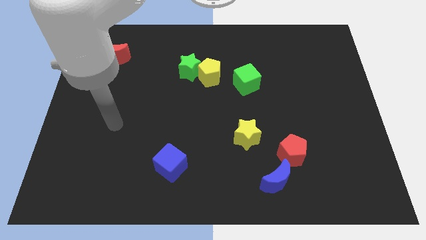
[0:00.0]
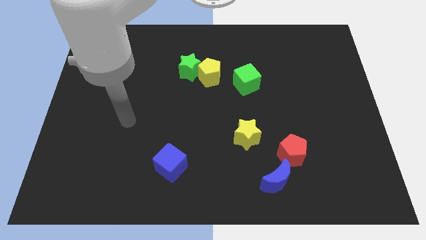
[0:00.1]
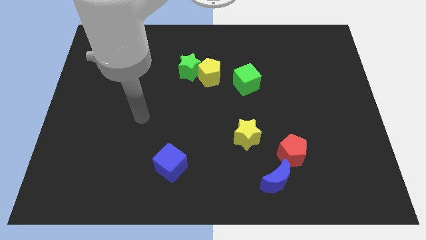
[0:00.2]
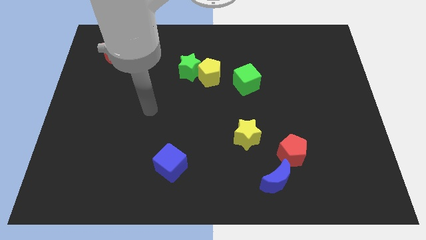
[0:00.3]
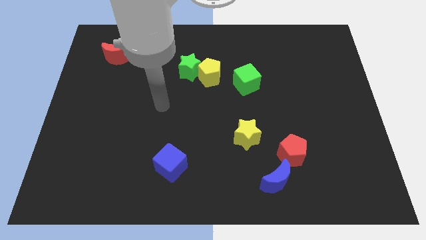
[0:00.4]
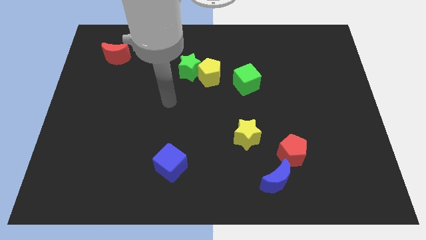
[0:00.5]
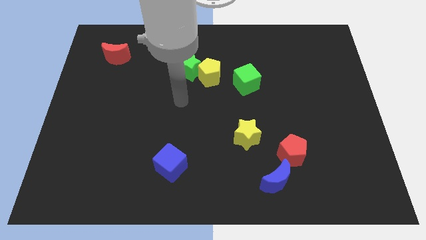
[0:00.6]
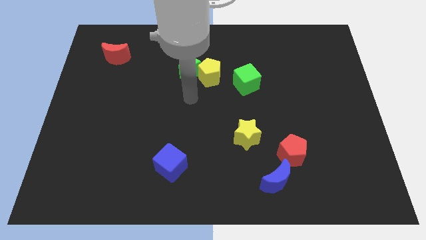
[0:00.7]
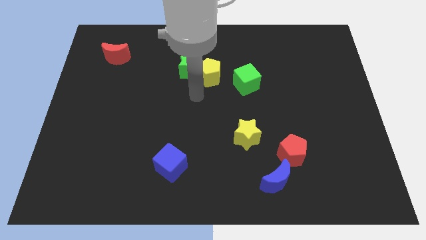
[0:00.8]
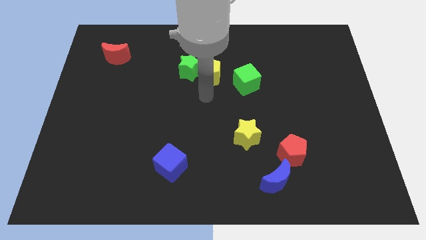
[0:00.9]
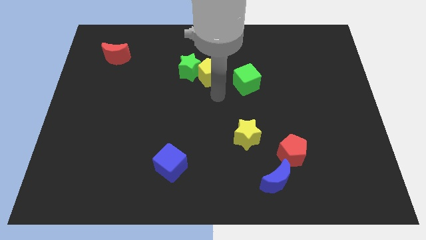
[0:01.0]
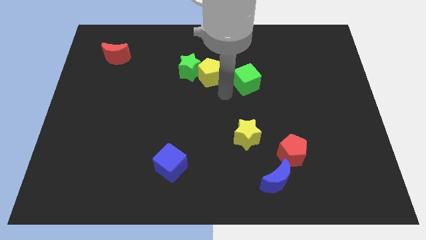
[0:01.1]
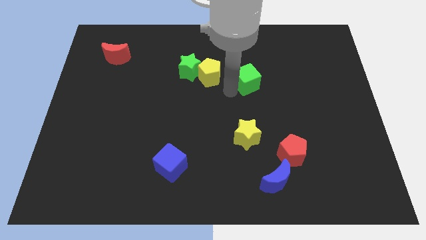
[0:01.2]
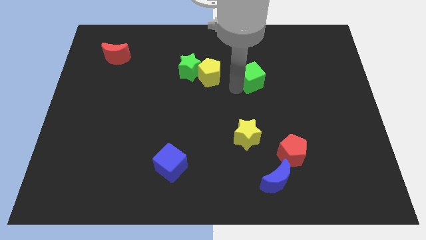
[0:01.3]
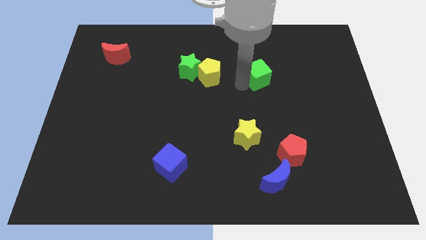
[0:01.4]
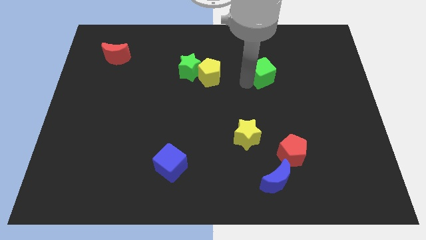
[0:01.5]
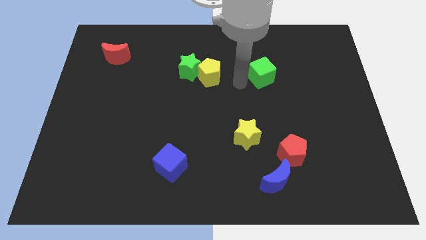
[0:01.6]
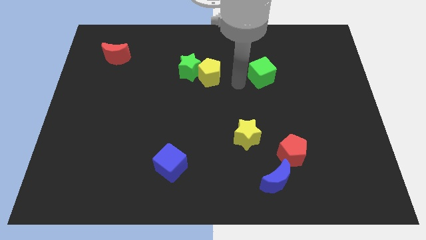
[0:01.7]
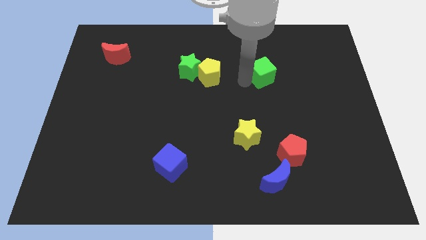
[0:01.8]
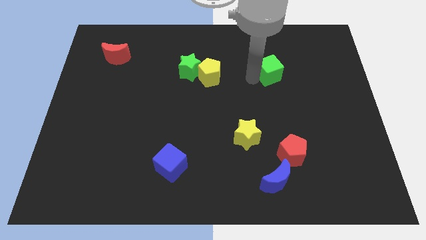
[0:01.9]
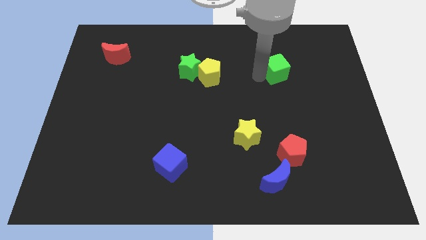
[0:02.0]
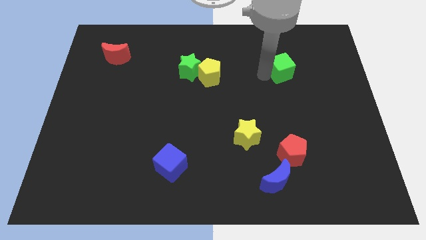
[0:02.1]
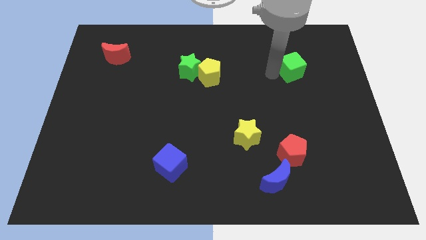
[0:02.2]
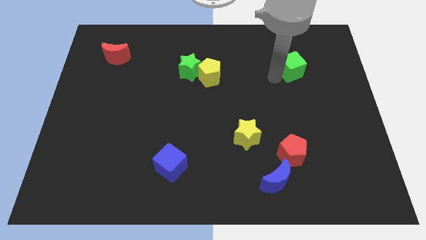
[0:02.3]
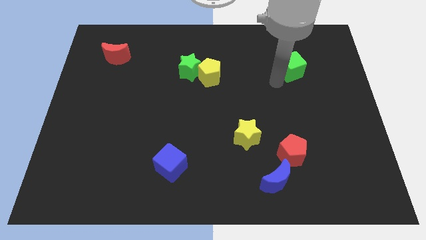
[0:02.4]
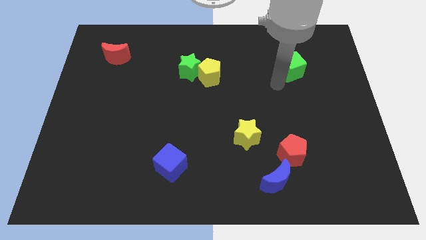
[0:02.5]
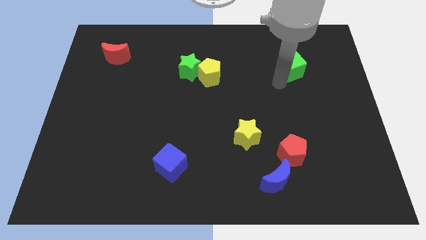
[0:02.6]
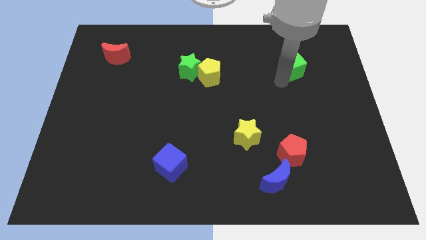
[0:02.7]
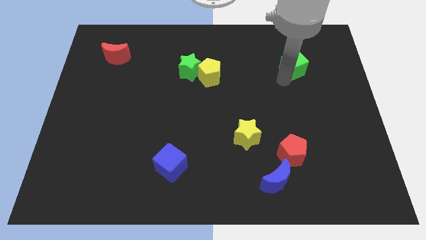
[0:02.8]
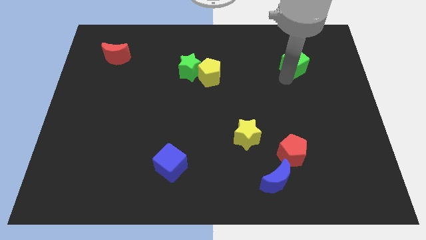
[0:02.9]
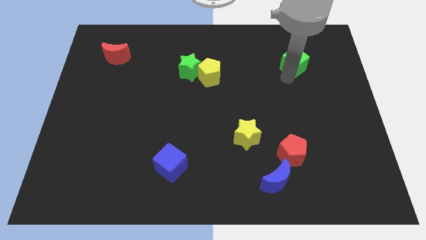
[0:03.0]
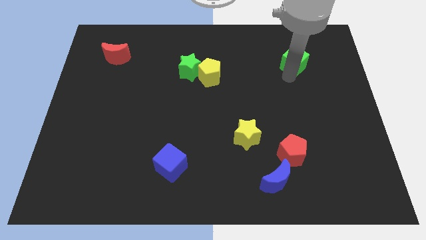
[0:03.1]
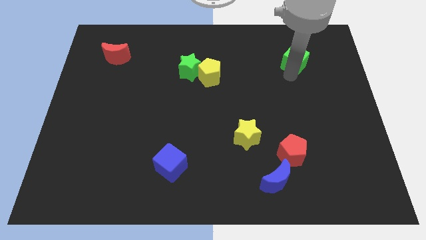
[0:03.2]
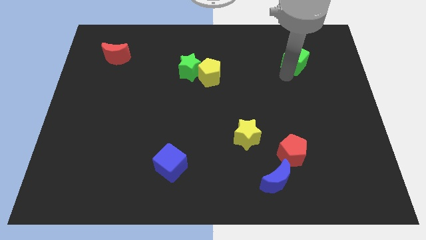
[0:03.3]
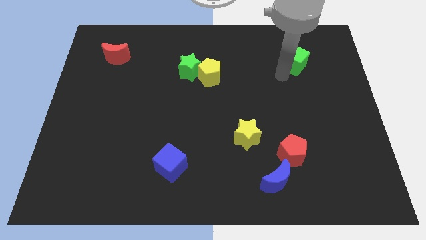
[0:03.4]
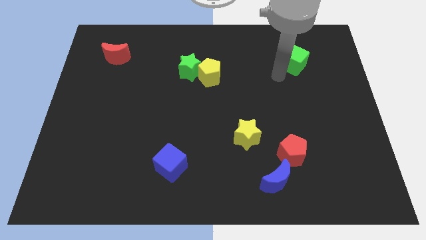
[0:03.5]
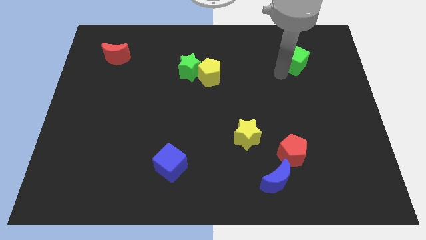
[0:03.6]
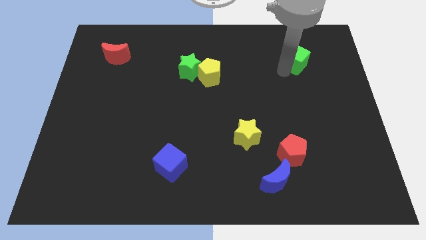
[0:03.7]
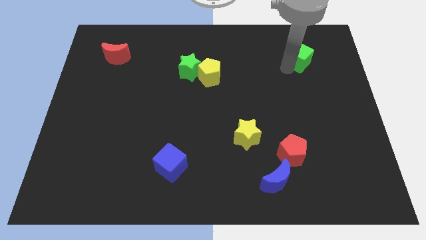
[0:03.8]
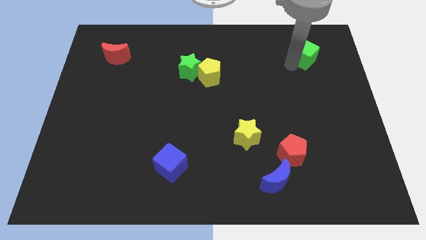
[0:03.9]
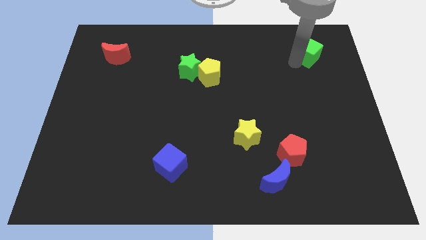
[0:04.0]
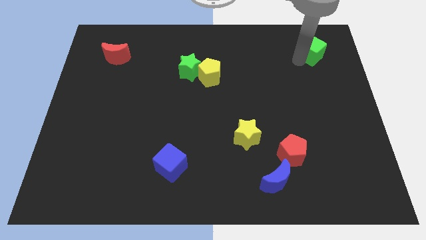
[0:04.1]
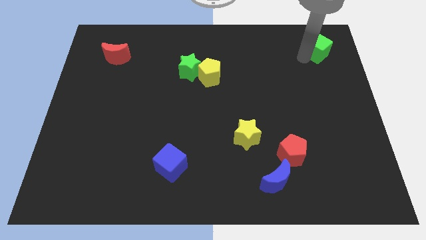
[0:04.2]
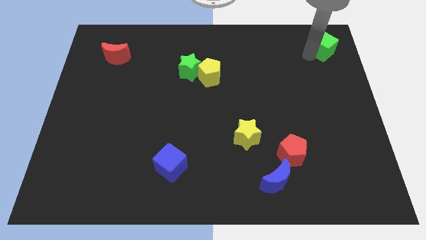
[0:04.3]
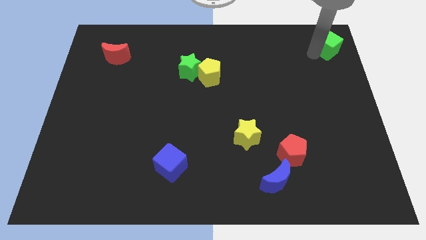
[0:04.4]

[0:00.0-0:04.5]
move the green cube to the top right

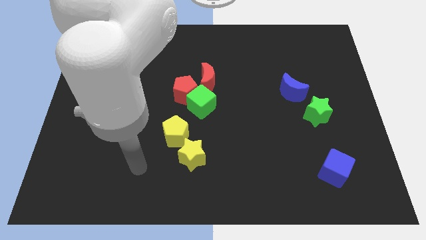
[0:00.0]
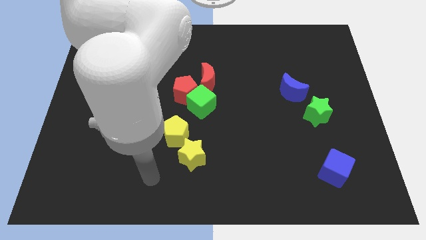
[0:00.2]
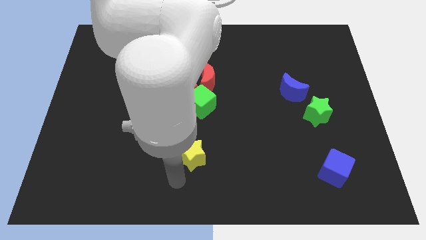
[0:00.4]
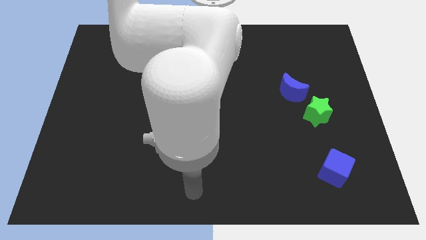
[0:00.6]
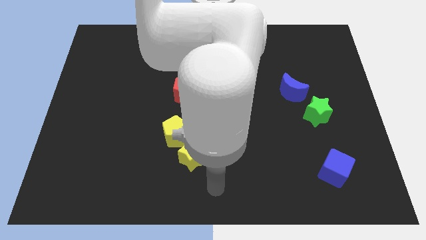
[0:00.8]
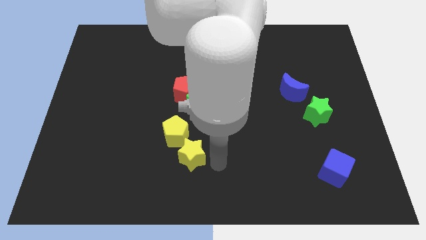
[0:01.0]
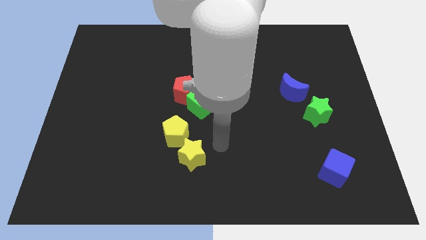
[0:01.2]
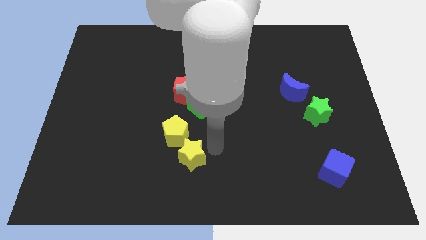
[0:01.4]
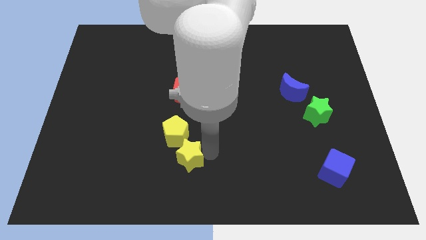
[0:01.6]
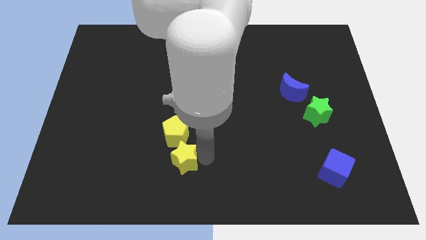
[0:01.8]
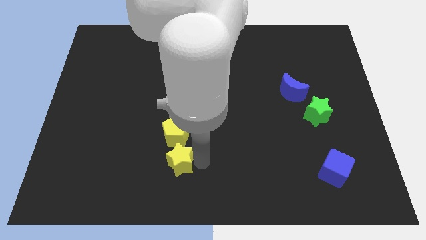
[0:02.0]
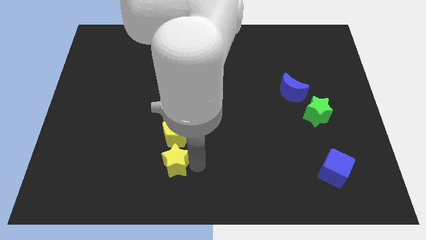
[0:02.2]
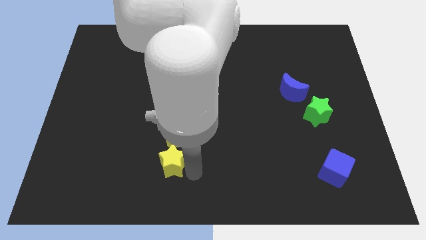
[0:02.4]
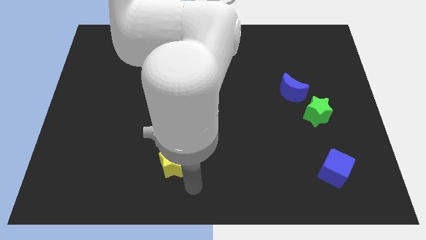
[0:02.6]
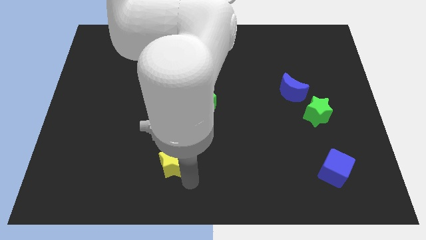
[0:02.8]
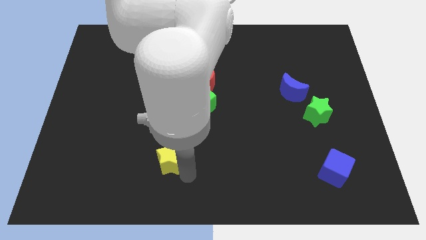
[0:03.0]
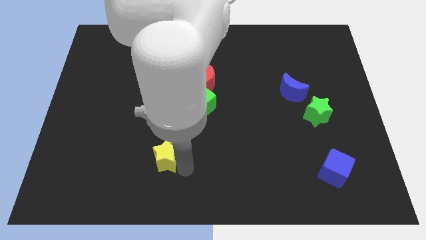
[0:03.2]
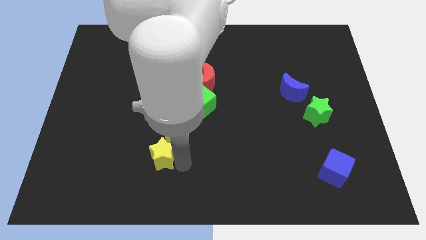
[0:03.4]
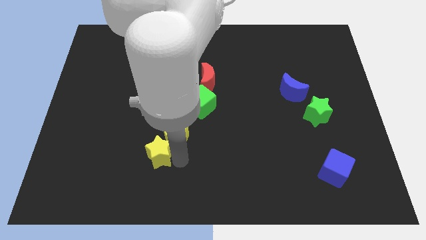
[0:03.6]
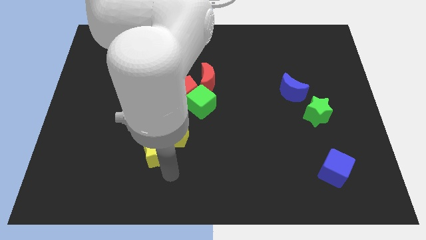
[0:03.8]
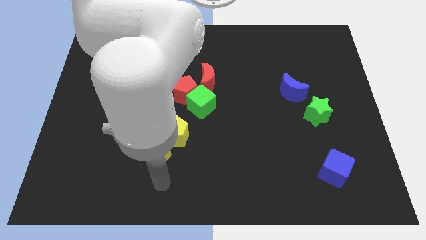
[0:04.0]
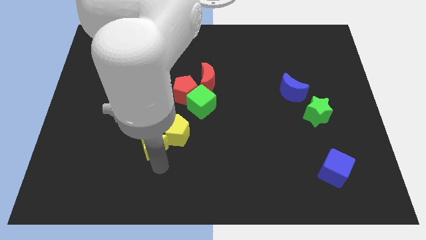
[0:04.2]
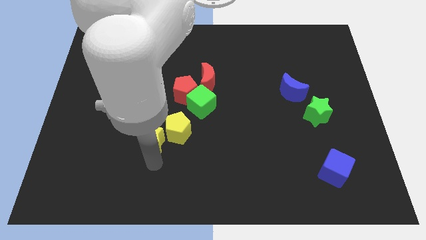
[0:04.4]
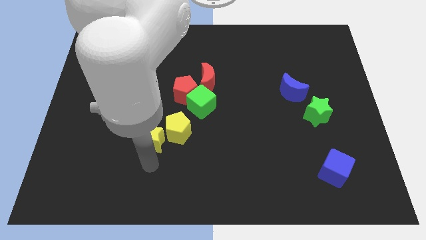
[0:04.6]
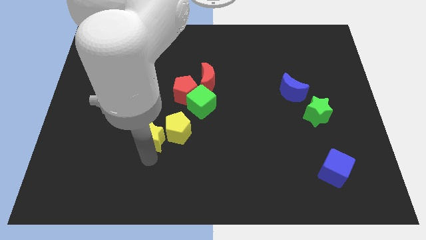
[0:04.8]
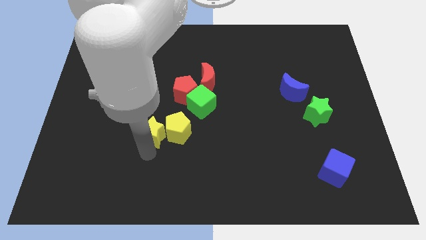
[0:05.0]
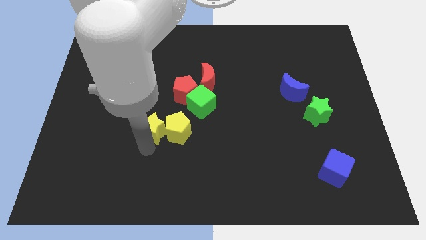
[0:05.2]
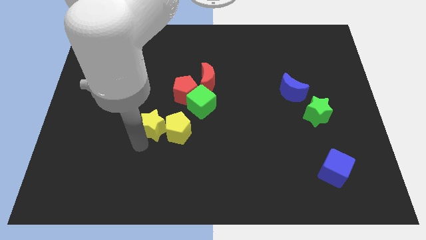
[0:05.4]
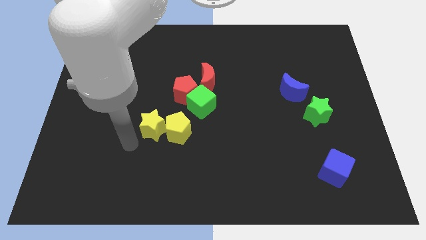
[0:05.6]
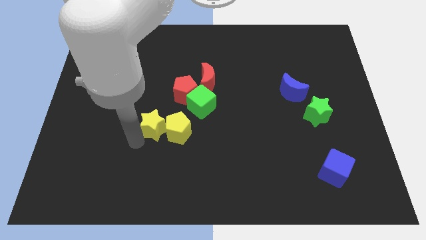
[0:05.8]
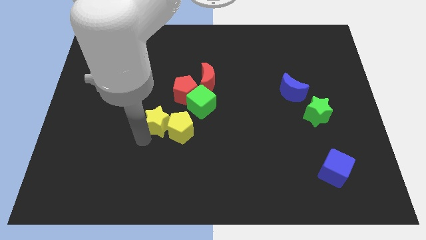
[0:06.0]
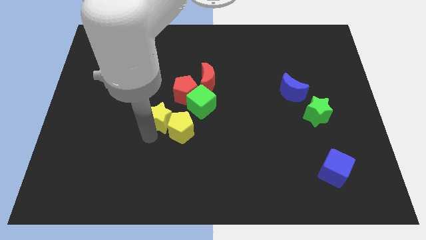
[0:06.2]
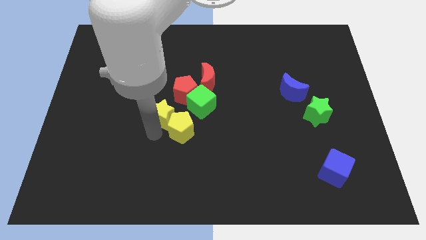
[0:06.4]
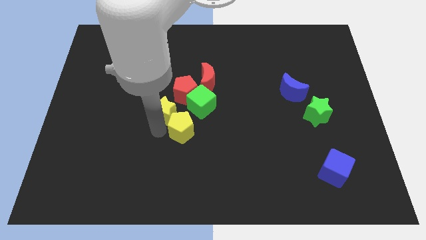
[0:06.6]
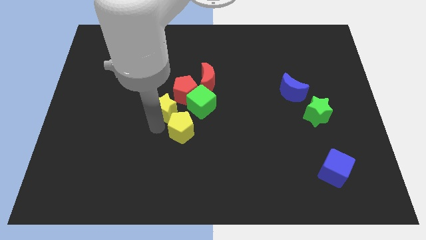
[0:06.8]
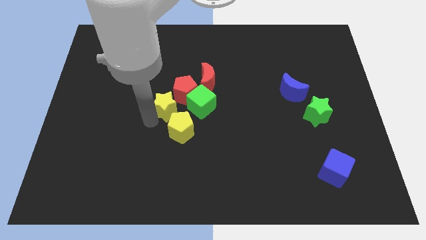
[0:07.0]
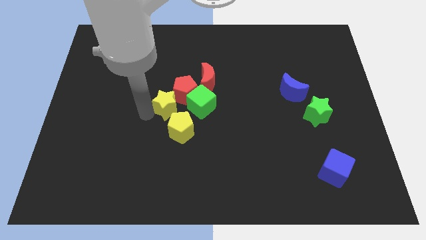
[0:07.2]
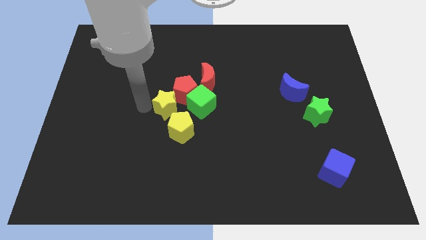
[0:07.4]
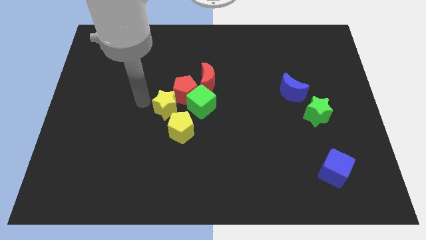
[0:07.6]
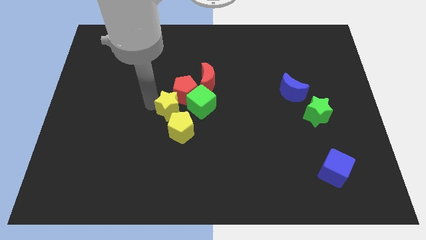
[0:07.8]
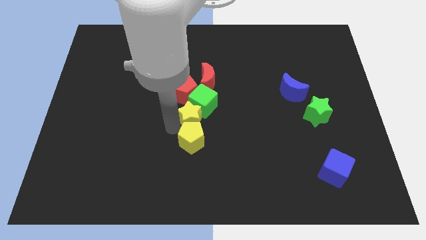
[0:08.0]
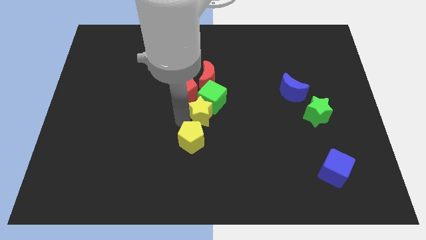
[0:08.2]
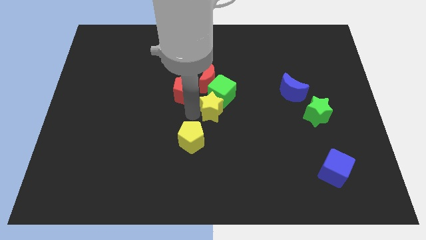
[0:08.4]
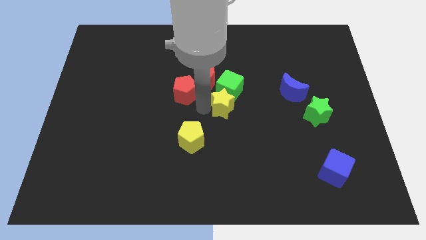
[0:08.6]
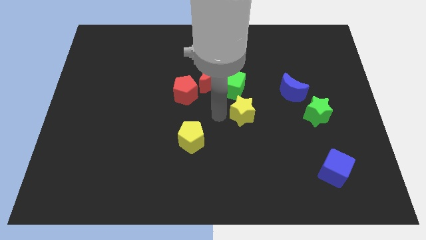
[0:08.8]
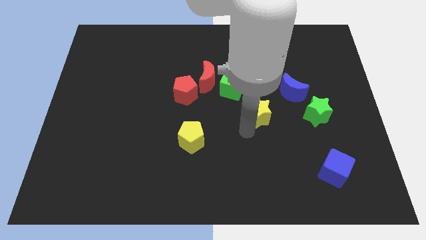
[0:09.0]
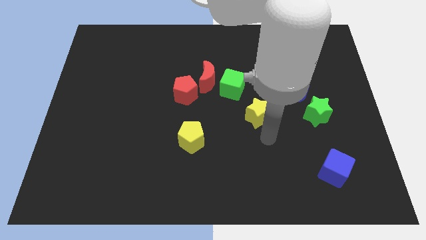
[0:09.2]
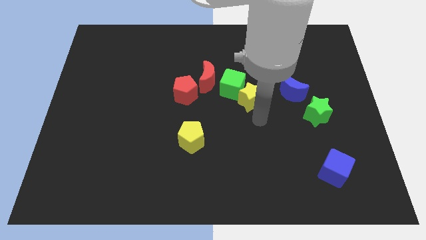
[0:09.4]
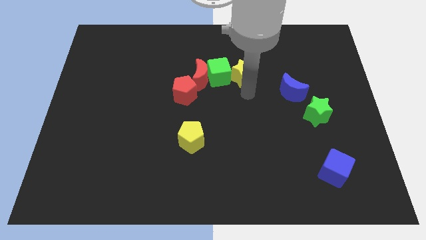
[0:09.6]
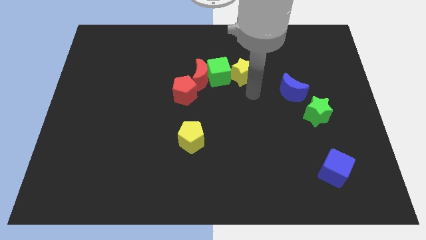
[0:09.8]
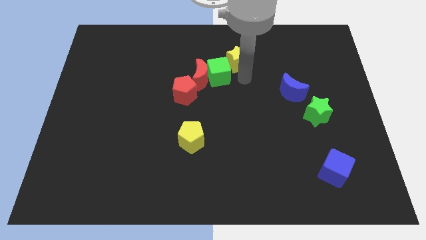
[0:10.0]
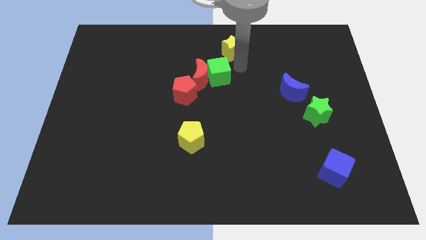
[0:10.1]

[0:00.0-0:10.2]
push the yellow star to the top
